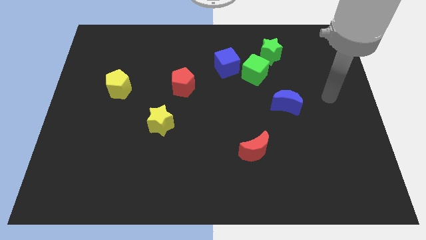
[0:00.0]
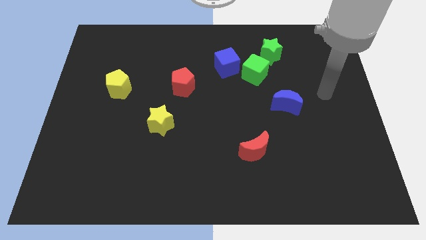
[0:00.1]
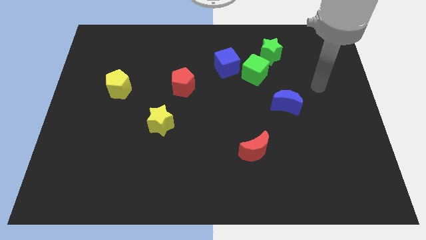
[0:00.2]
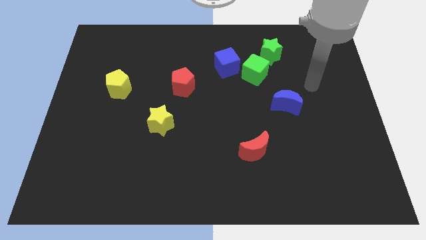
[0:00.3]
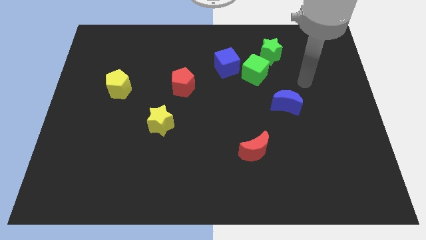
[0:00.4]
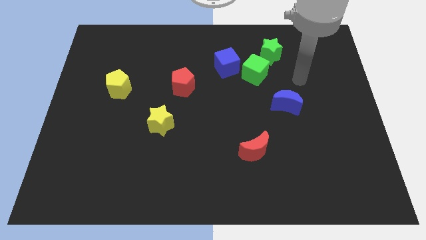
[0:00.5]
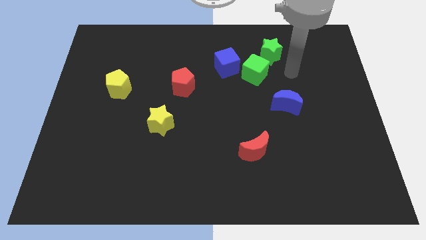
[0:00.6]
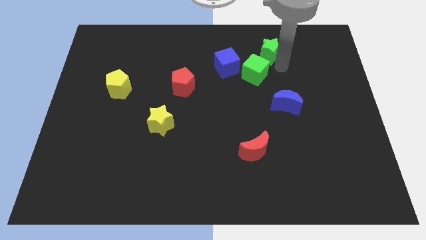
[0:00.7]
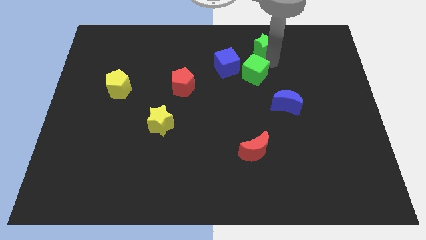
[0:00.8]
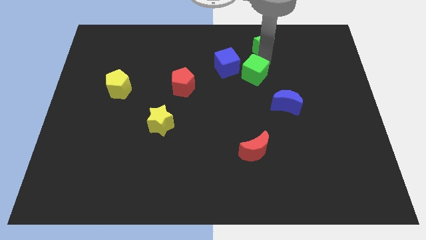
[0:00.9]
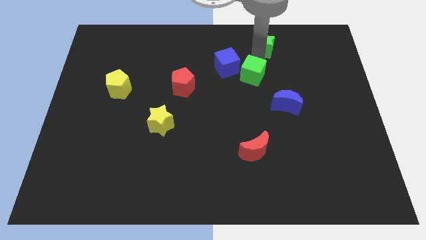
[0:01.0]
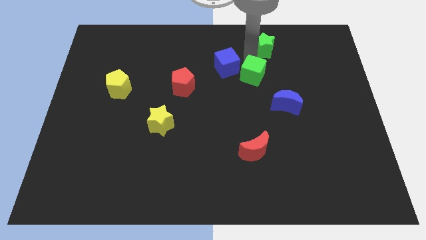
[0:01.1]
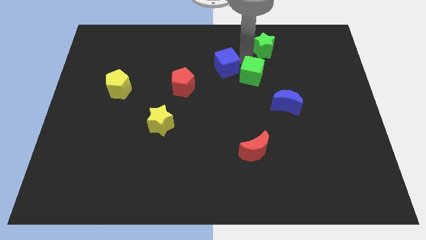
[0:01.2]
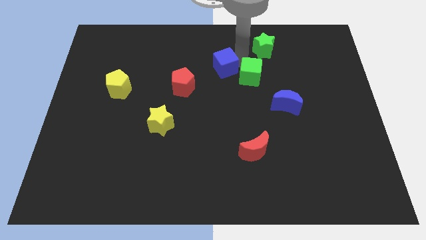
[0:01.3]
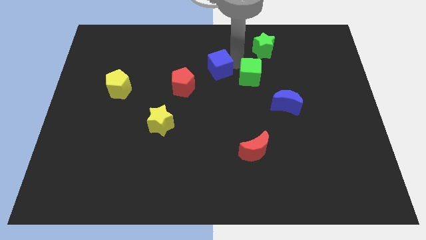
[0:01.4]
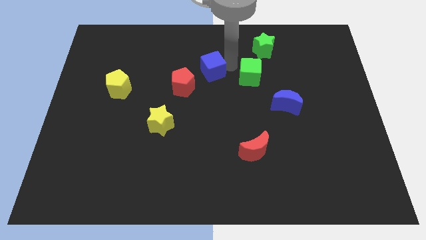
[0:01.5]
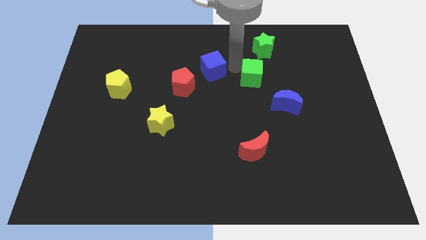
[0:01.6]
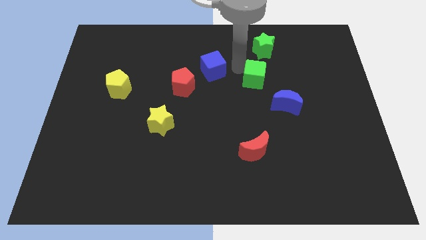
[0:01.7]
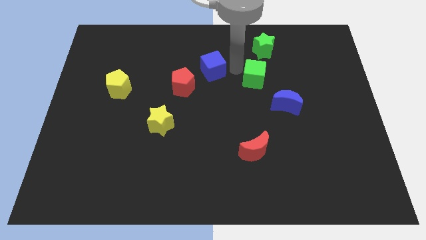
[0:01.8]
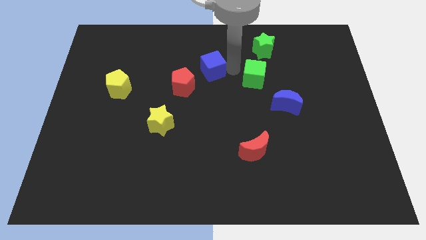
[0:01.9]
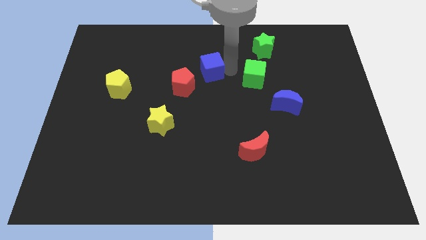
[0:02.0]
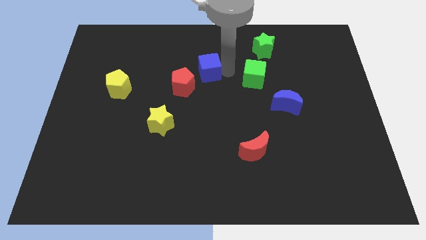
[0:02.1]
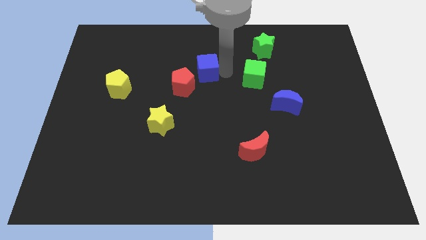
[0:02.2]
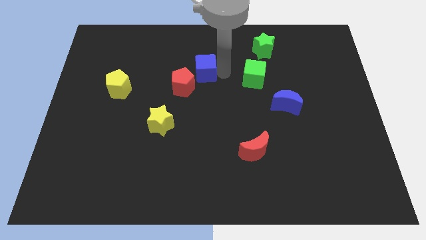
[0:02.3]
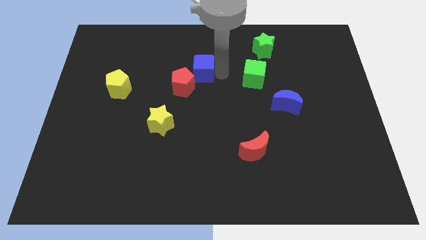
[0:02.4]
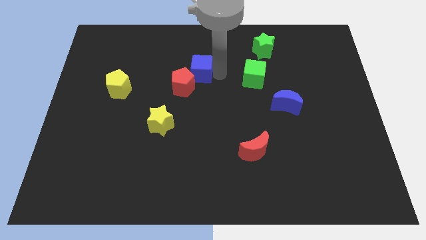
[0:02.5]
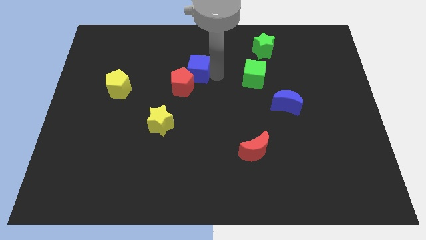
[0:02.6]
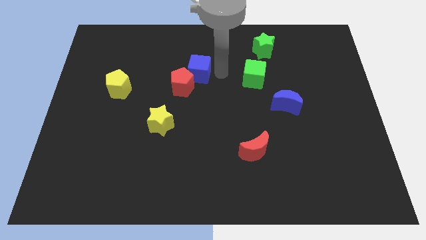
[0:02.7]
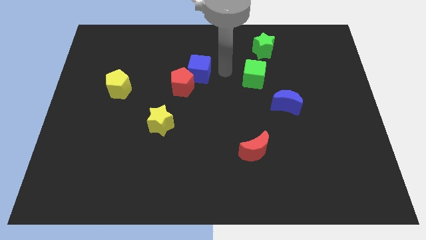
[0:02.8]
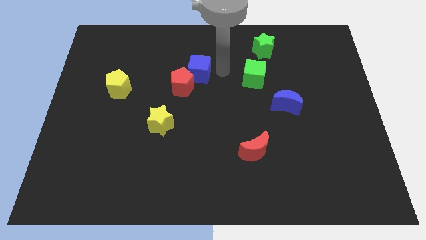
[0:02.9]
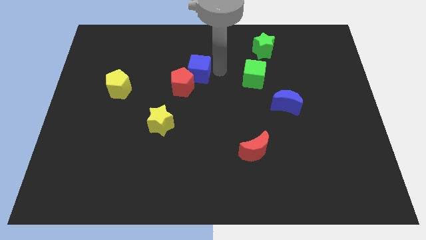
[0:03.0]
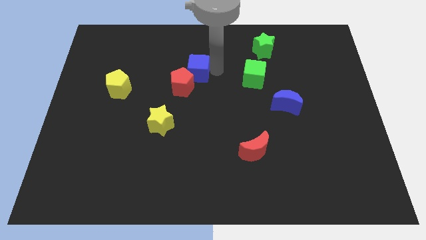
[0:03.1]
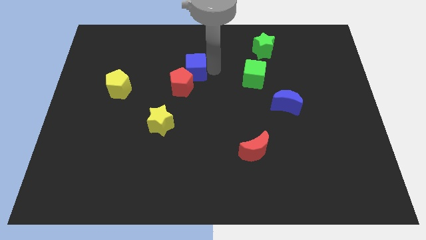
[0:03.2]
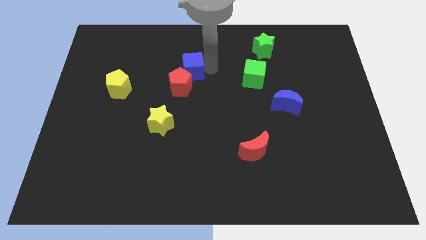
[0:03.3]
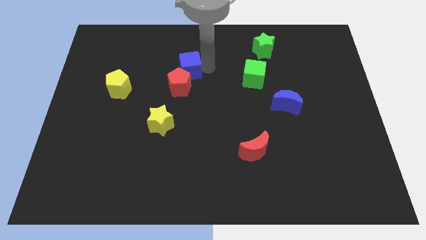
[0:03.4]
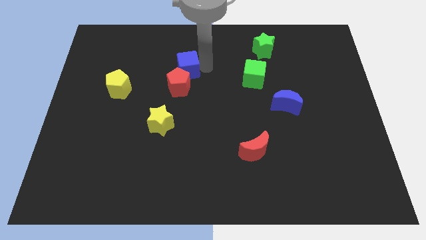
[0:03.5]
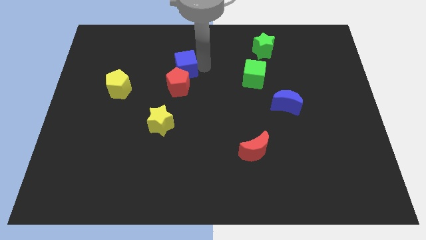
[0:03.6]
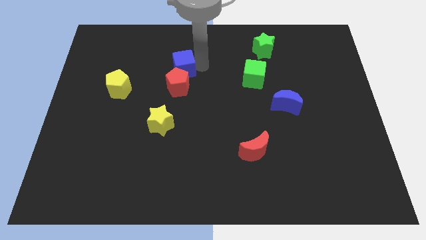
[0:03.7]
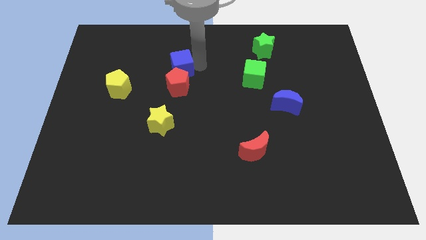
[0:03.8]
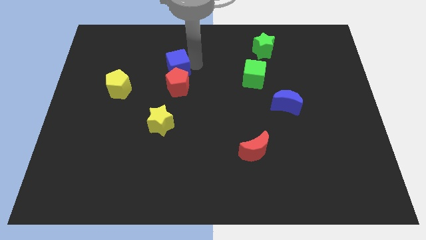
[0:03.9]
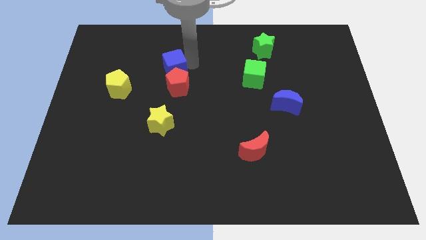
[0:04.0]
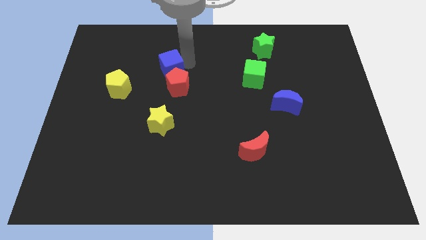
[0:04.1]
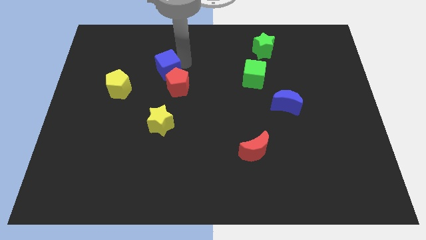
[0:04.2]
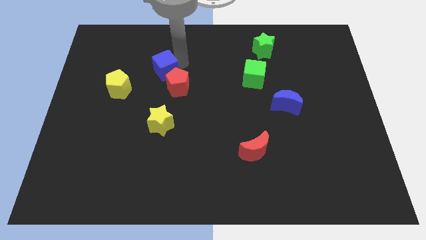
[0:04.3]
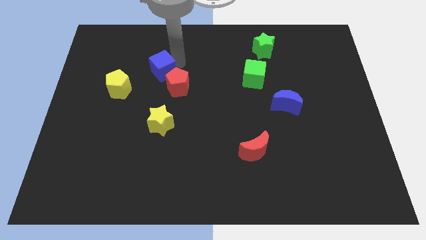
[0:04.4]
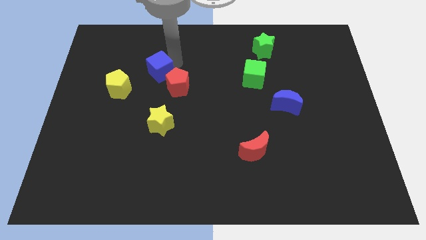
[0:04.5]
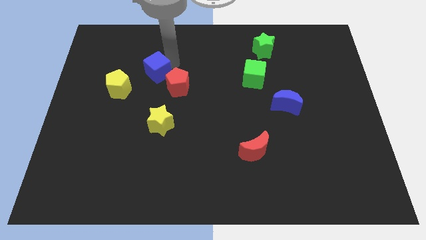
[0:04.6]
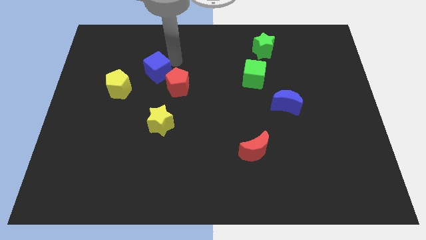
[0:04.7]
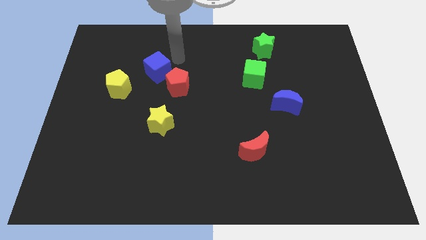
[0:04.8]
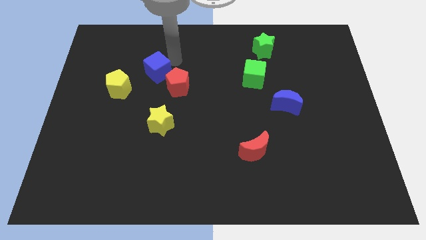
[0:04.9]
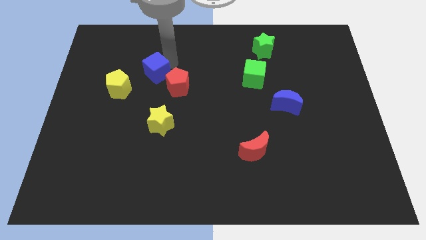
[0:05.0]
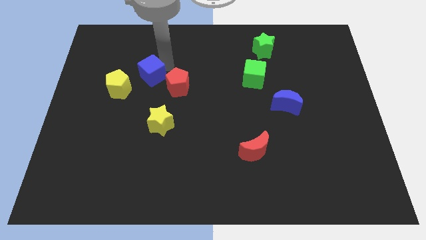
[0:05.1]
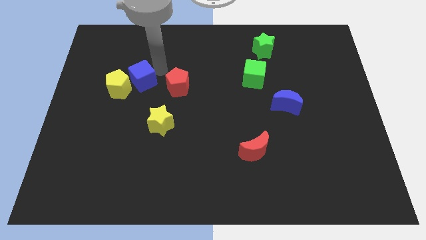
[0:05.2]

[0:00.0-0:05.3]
slide the blue cube towards the yellow pentagon

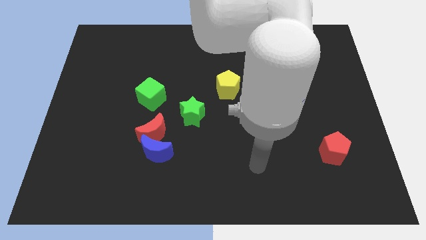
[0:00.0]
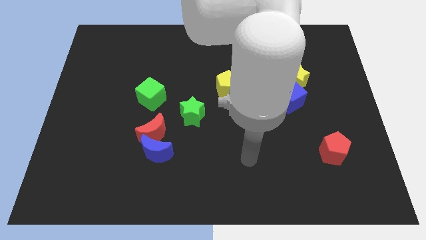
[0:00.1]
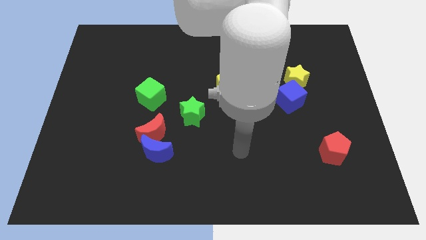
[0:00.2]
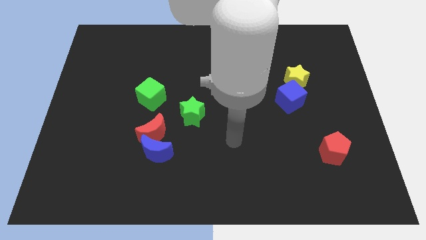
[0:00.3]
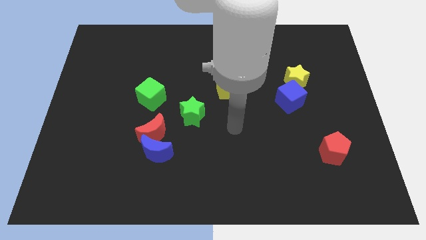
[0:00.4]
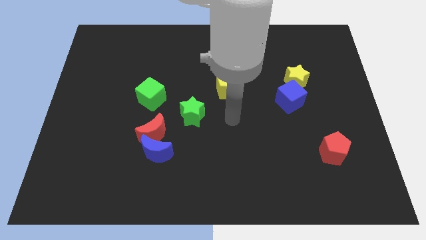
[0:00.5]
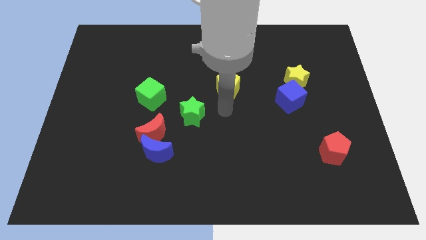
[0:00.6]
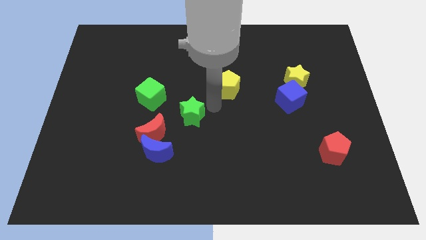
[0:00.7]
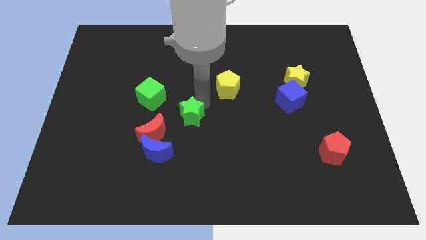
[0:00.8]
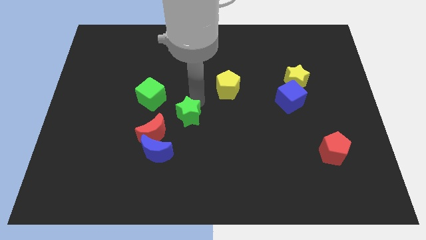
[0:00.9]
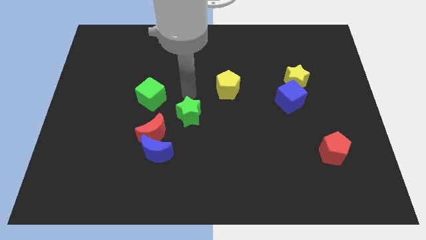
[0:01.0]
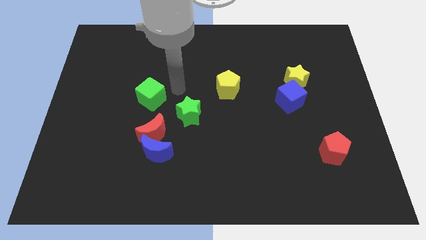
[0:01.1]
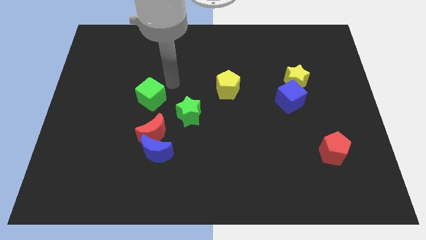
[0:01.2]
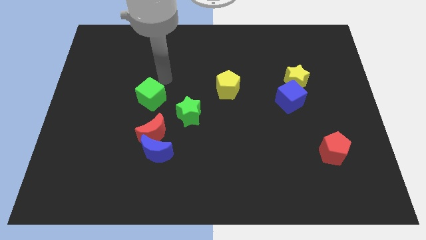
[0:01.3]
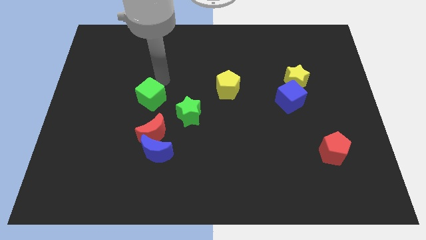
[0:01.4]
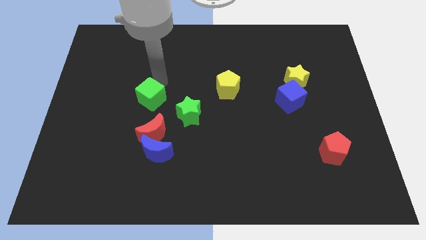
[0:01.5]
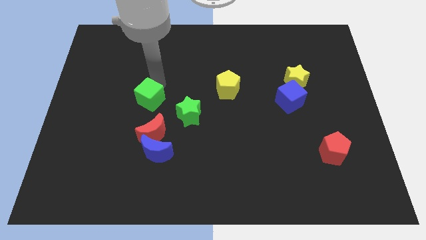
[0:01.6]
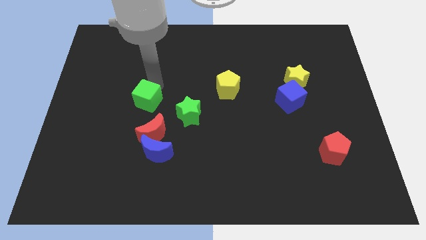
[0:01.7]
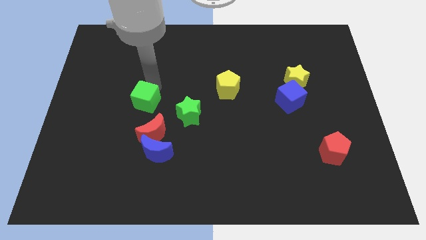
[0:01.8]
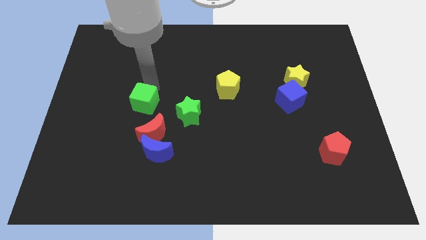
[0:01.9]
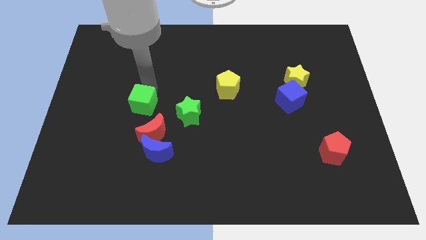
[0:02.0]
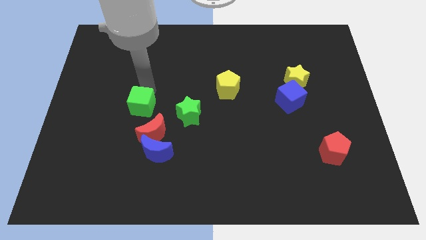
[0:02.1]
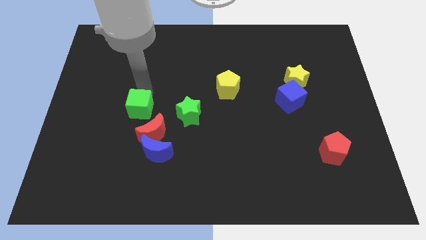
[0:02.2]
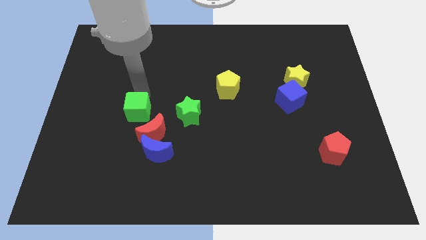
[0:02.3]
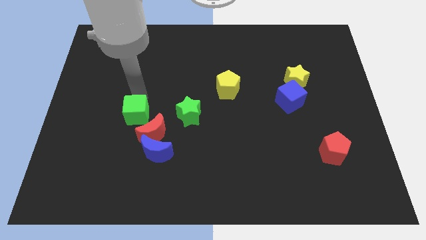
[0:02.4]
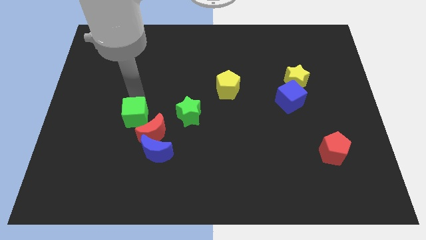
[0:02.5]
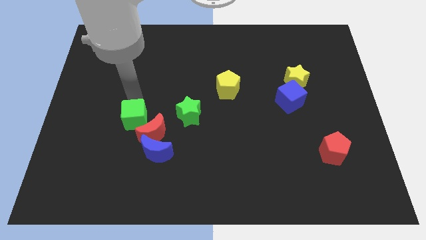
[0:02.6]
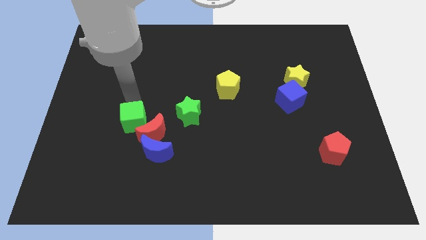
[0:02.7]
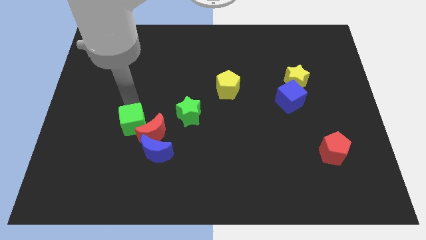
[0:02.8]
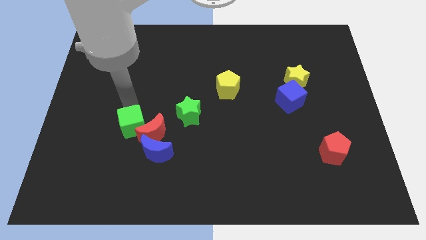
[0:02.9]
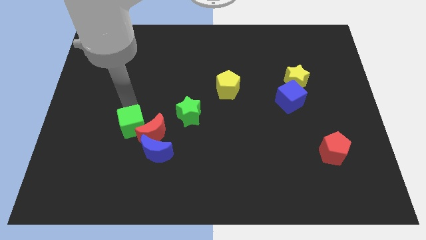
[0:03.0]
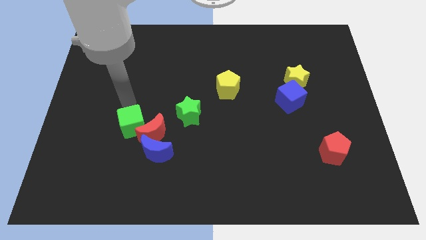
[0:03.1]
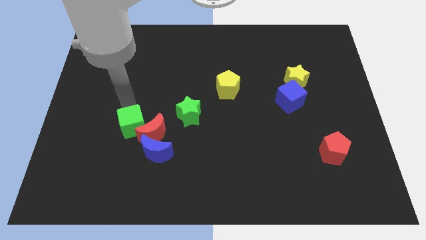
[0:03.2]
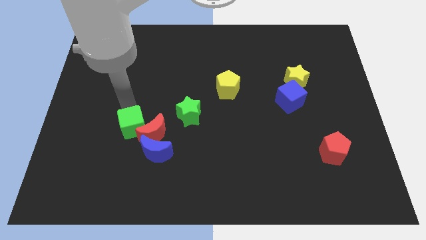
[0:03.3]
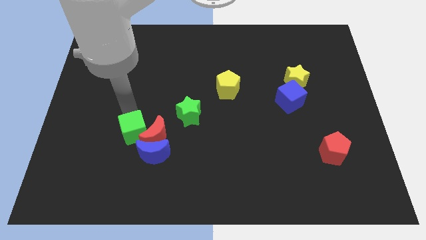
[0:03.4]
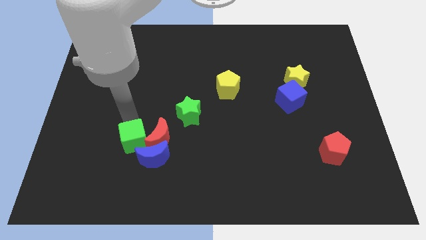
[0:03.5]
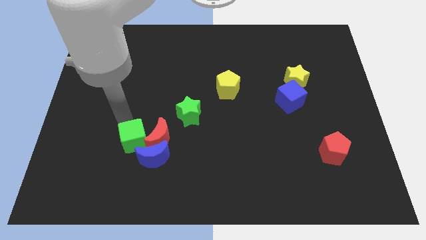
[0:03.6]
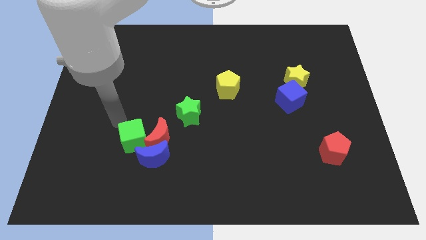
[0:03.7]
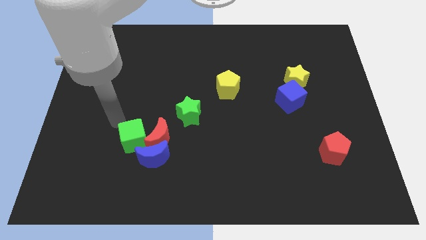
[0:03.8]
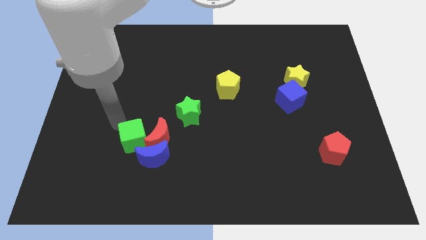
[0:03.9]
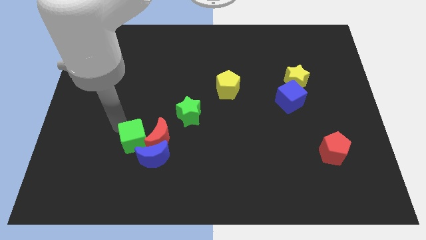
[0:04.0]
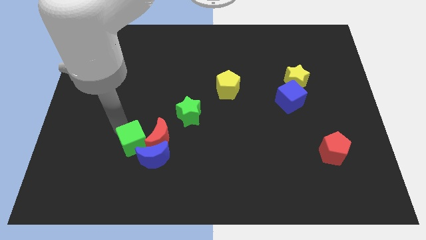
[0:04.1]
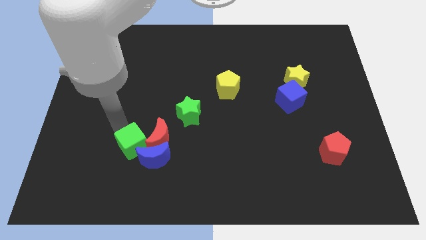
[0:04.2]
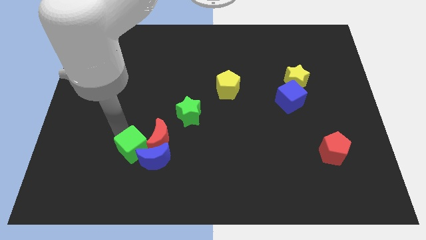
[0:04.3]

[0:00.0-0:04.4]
put the green cube to the blue moon
